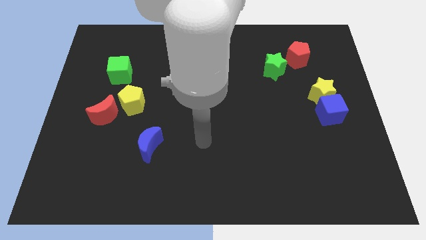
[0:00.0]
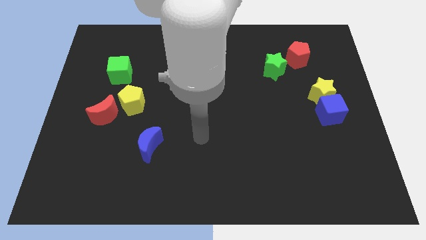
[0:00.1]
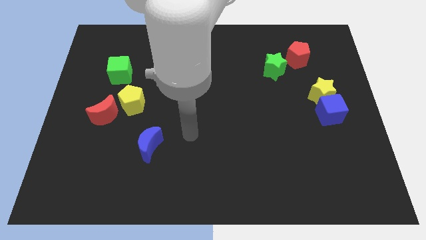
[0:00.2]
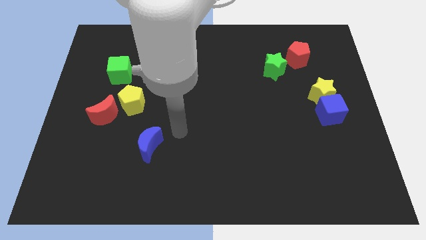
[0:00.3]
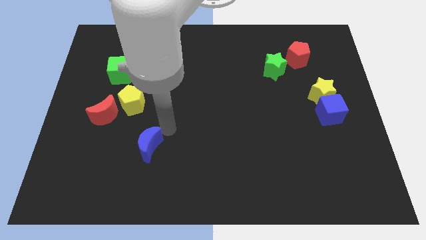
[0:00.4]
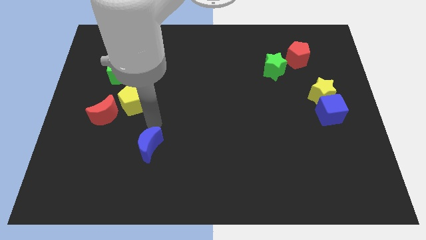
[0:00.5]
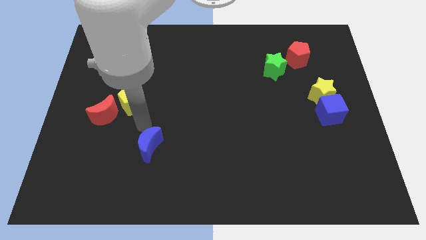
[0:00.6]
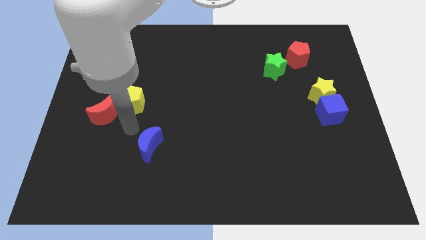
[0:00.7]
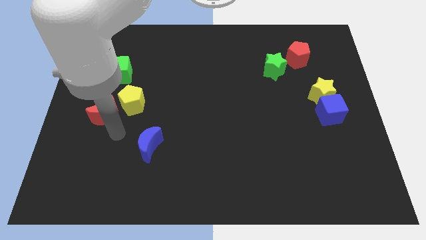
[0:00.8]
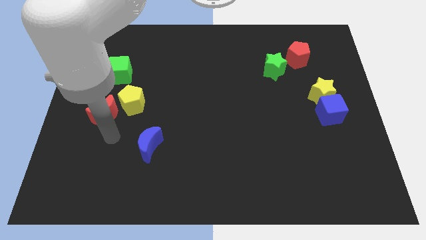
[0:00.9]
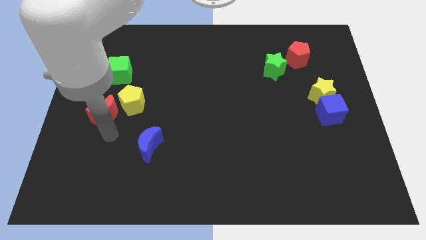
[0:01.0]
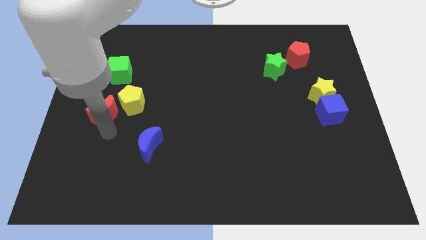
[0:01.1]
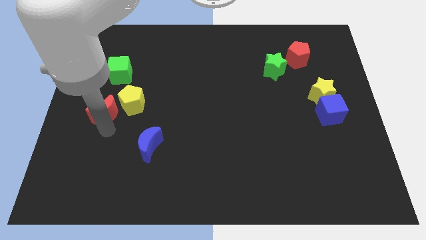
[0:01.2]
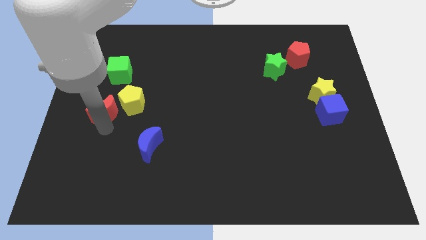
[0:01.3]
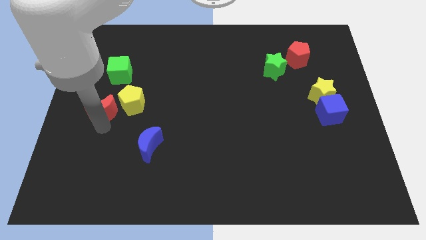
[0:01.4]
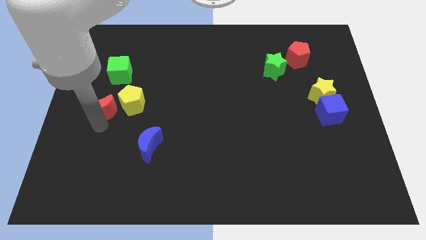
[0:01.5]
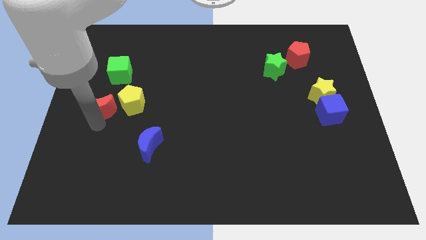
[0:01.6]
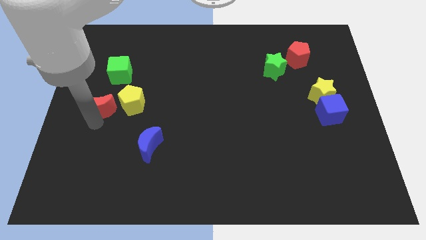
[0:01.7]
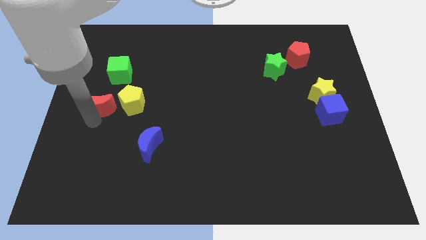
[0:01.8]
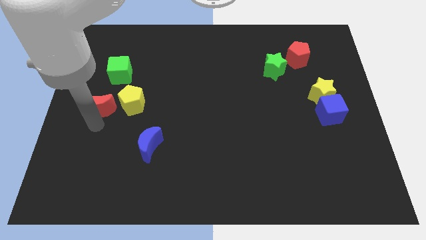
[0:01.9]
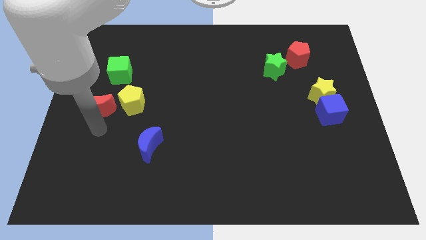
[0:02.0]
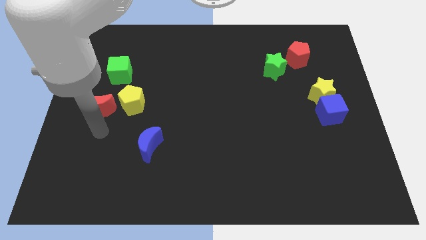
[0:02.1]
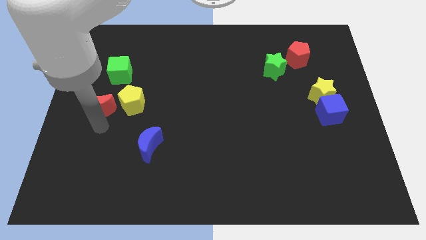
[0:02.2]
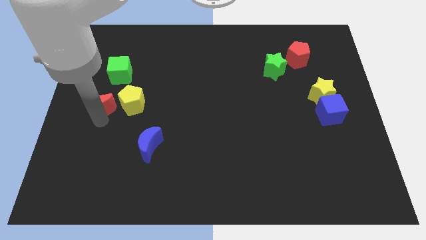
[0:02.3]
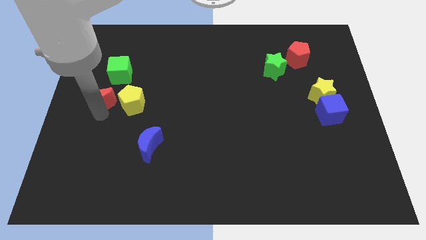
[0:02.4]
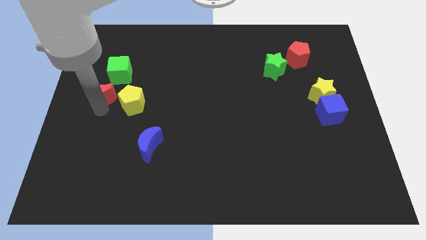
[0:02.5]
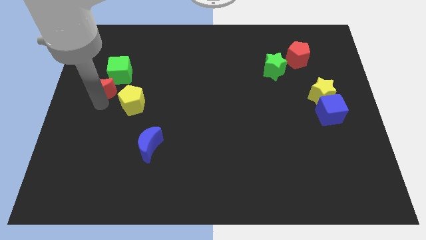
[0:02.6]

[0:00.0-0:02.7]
slightly move the red moon upwards

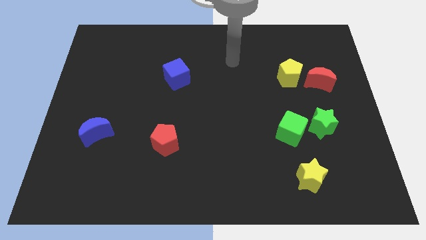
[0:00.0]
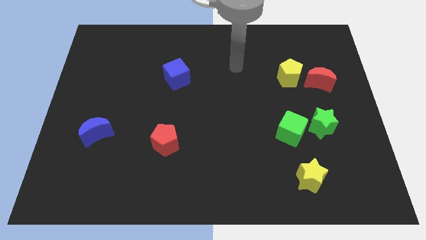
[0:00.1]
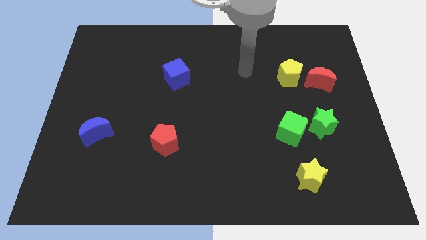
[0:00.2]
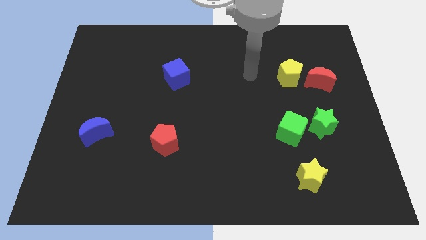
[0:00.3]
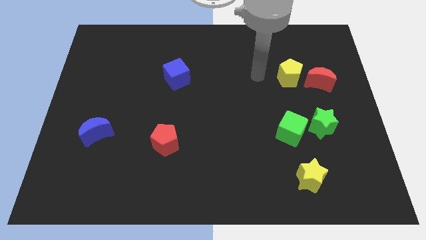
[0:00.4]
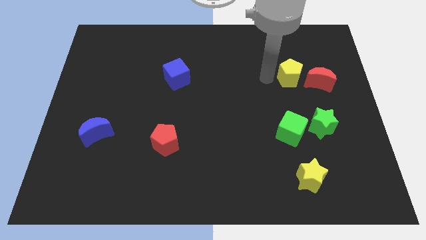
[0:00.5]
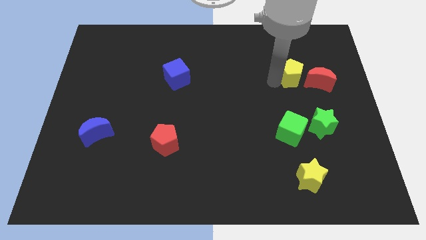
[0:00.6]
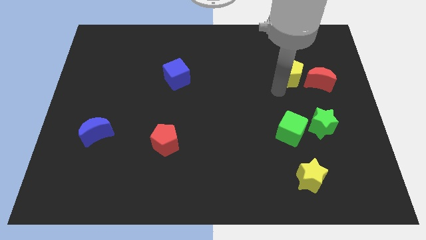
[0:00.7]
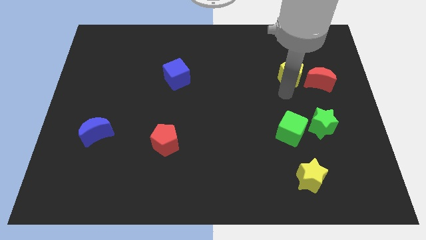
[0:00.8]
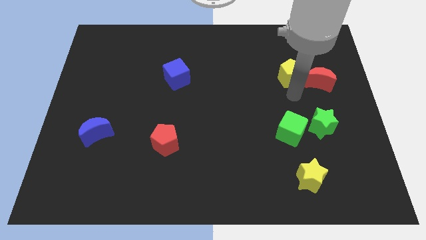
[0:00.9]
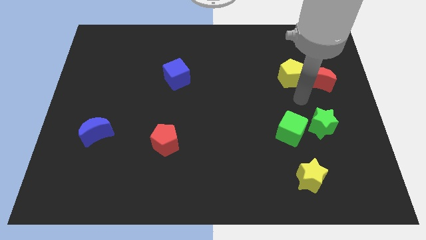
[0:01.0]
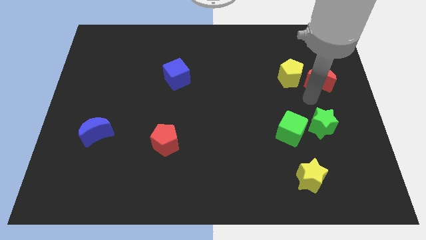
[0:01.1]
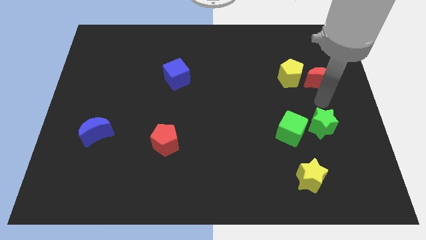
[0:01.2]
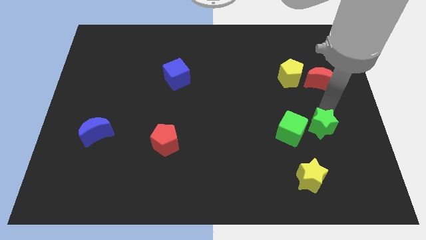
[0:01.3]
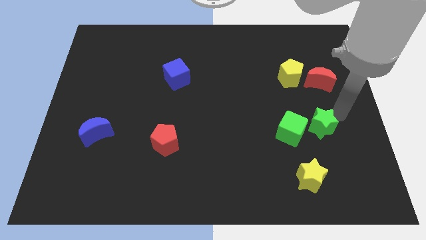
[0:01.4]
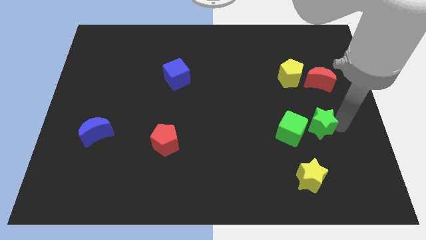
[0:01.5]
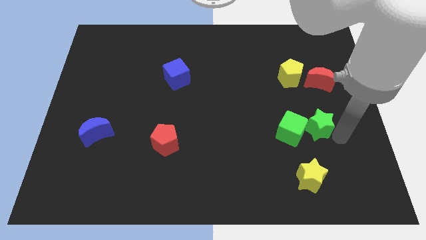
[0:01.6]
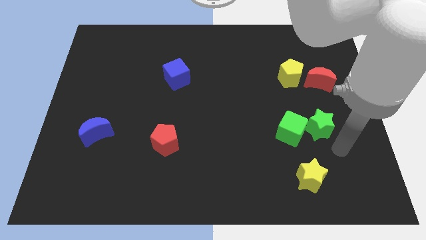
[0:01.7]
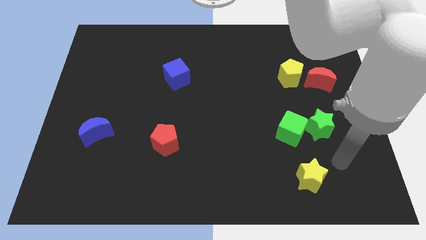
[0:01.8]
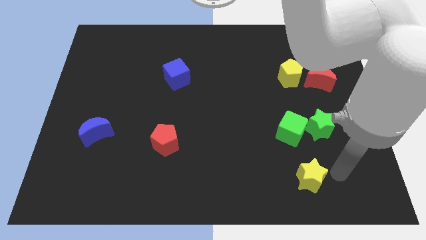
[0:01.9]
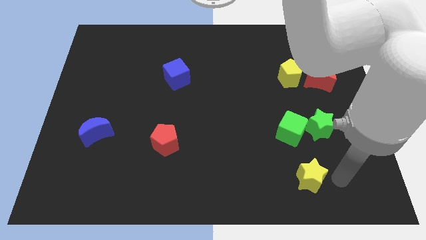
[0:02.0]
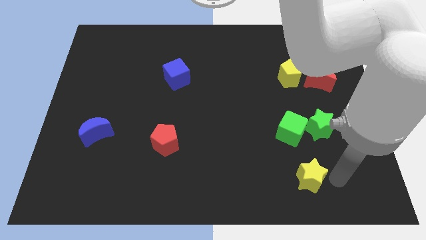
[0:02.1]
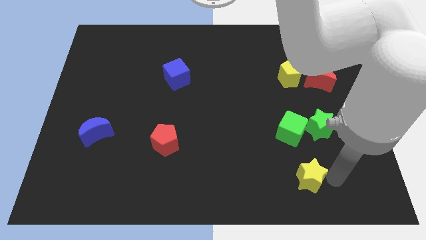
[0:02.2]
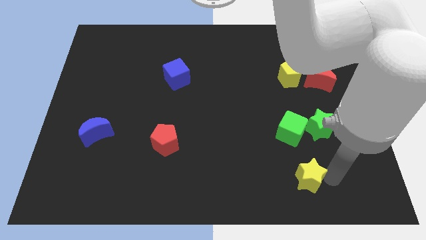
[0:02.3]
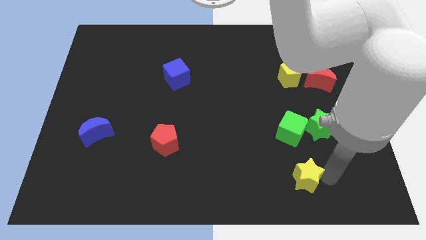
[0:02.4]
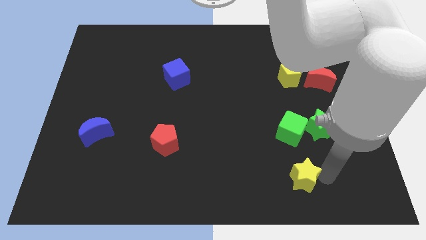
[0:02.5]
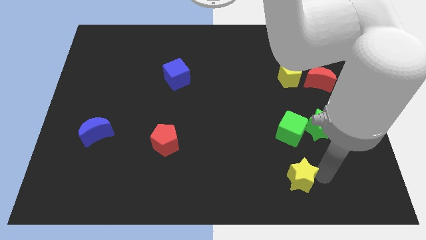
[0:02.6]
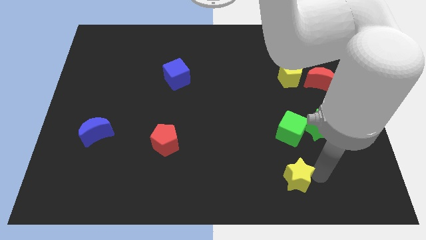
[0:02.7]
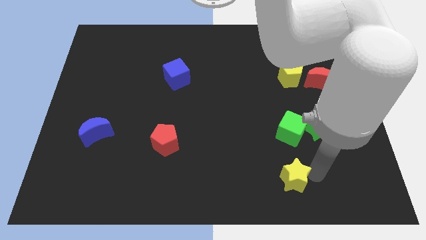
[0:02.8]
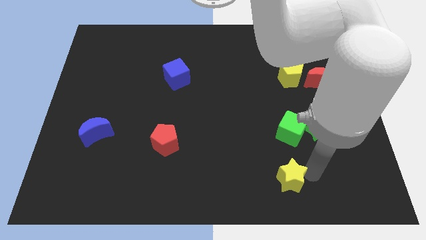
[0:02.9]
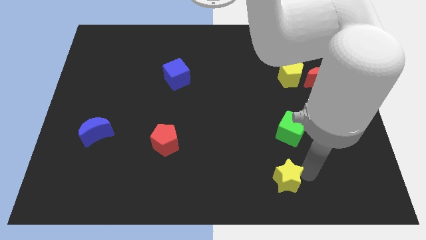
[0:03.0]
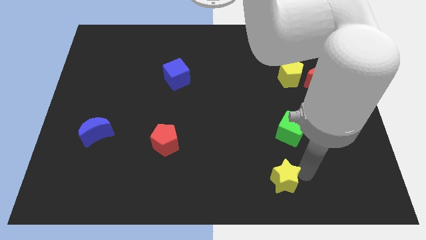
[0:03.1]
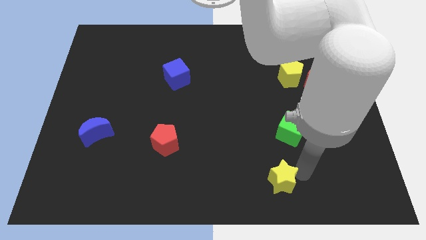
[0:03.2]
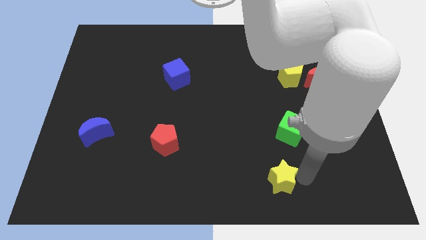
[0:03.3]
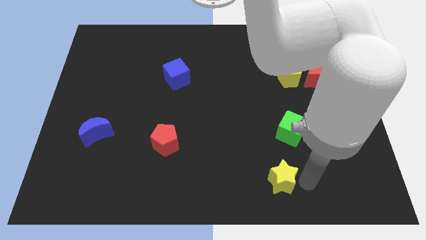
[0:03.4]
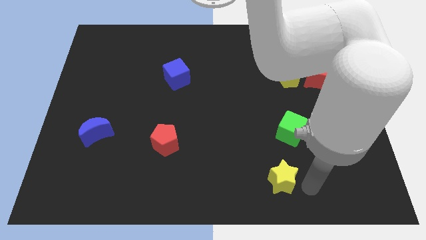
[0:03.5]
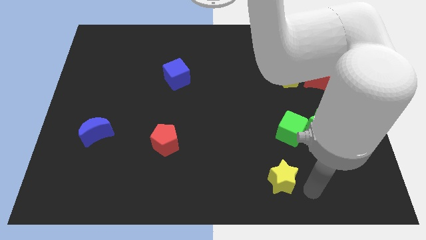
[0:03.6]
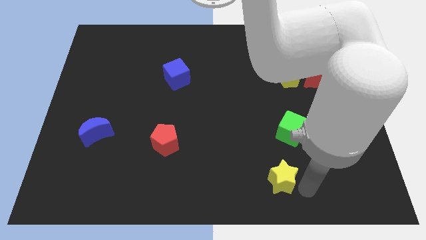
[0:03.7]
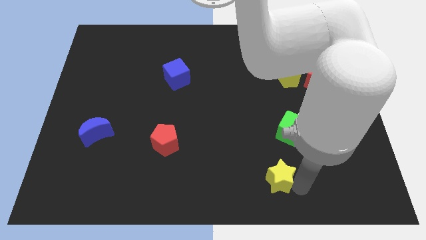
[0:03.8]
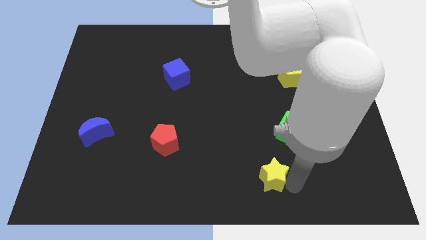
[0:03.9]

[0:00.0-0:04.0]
push the yellow star left a little

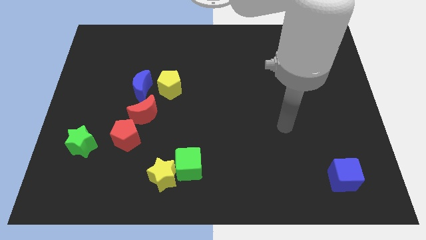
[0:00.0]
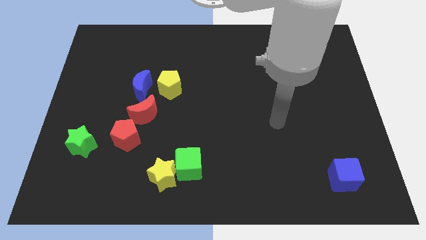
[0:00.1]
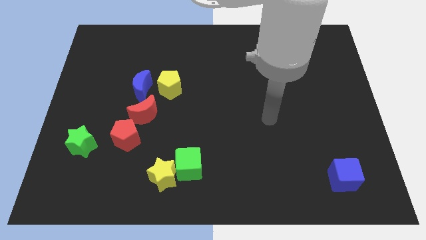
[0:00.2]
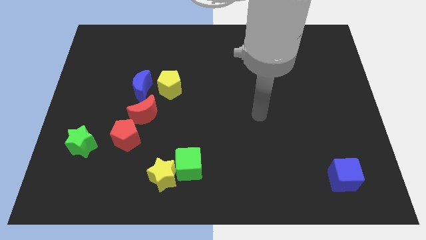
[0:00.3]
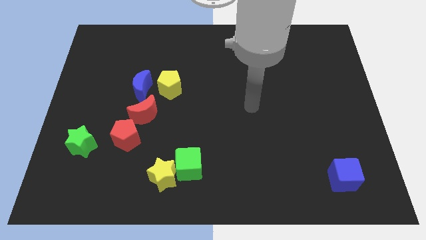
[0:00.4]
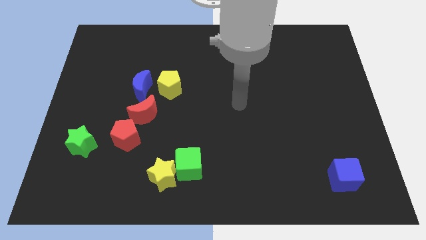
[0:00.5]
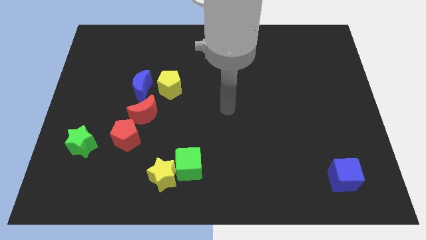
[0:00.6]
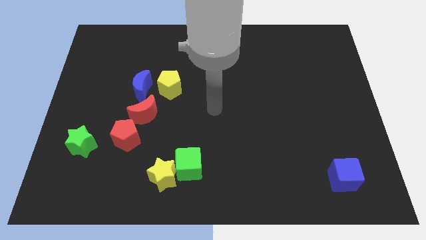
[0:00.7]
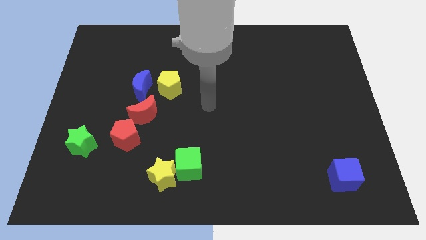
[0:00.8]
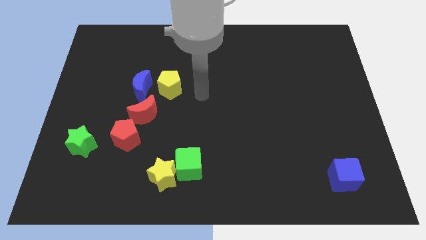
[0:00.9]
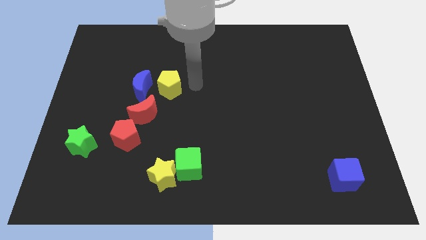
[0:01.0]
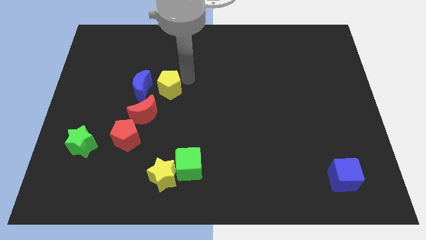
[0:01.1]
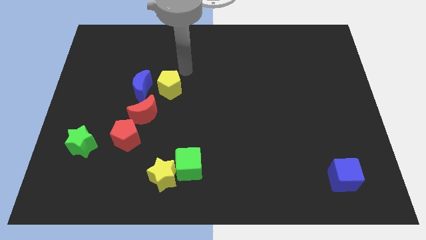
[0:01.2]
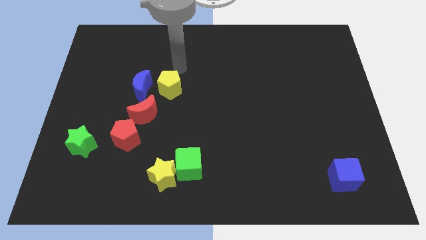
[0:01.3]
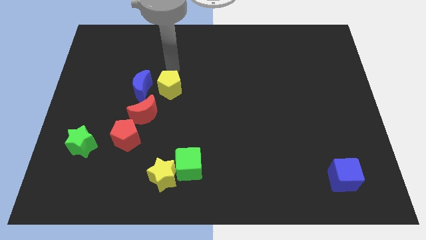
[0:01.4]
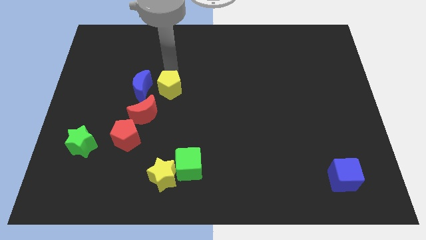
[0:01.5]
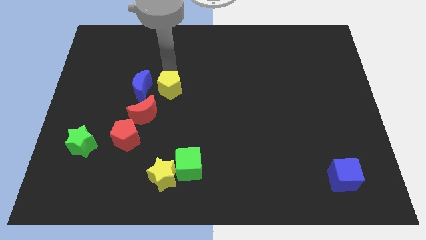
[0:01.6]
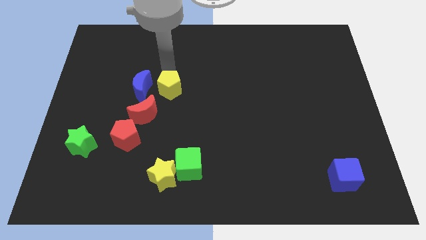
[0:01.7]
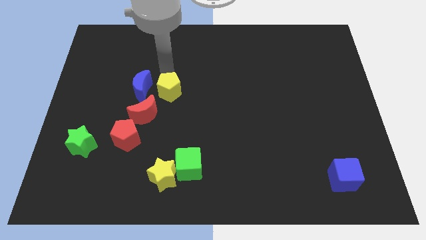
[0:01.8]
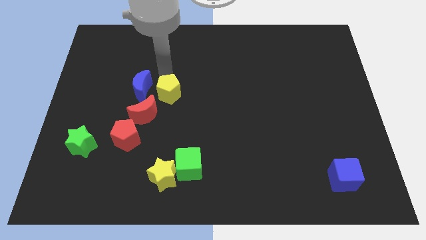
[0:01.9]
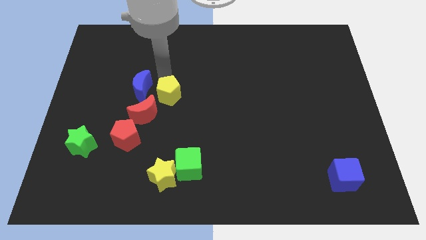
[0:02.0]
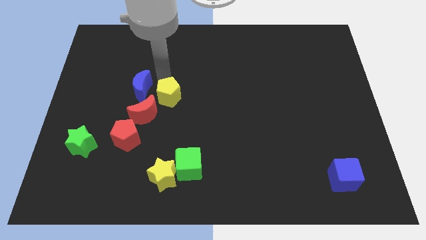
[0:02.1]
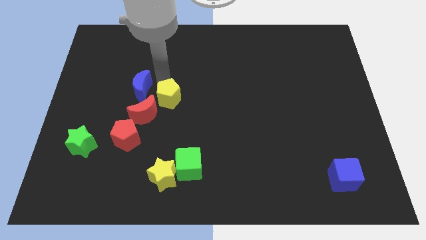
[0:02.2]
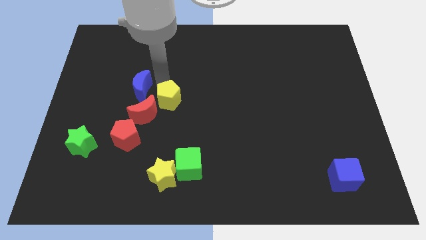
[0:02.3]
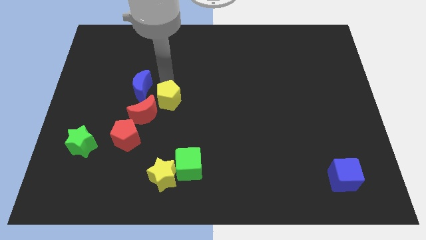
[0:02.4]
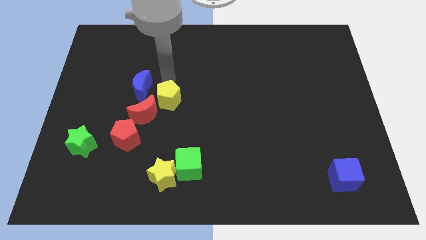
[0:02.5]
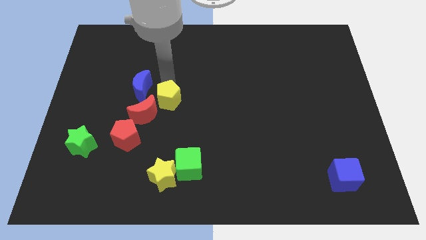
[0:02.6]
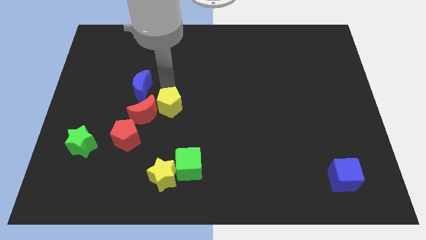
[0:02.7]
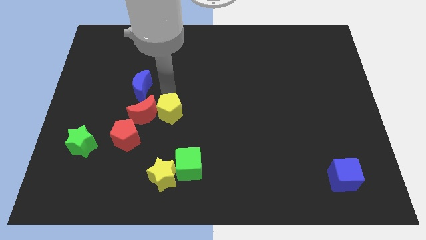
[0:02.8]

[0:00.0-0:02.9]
push the yellow pentagon down somewhat
